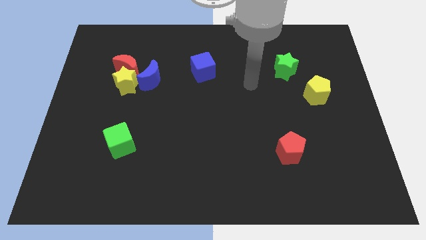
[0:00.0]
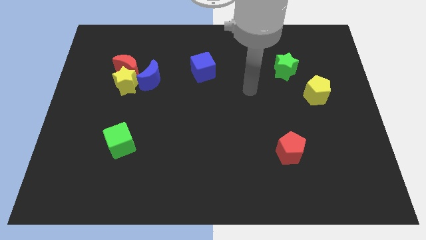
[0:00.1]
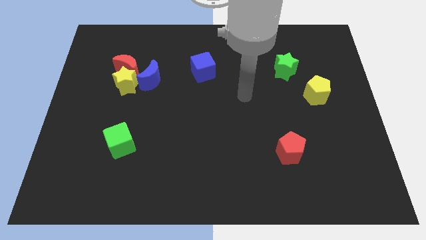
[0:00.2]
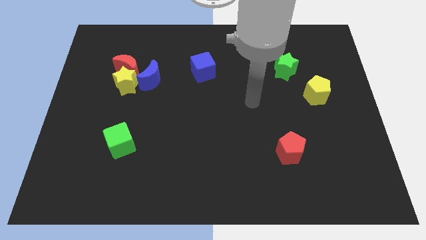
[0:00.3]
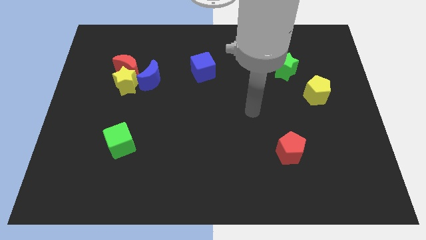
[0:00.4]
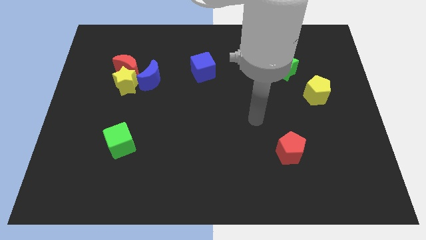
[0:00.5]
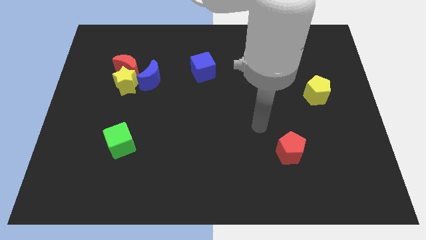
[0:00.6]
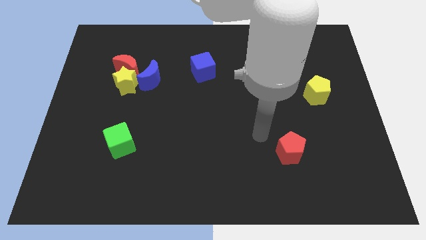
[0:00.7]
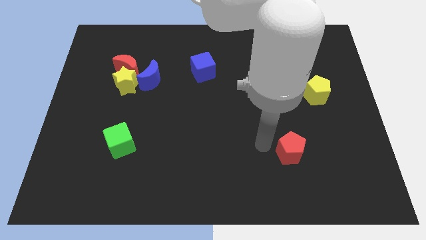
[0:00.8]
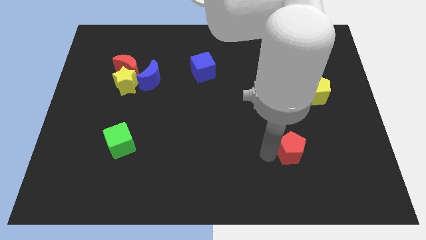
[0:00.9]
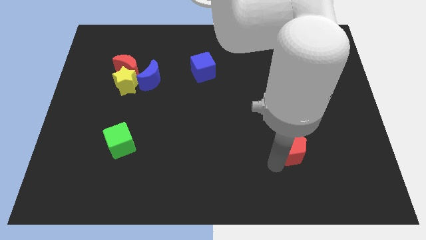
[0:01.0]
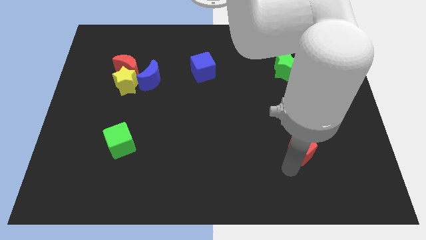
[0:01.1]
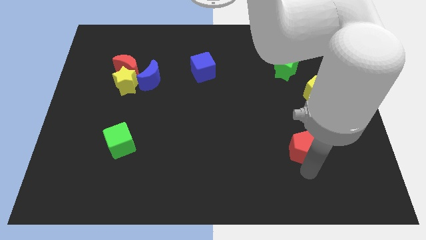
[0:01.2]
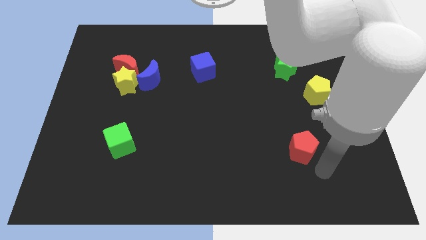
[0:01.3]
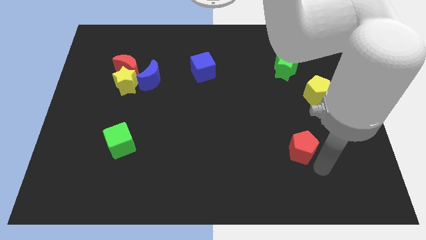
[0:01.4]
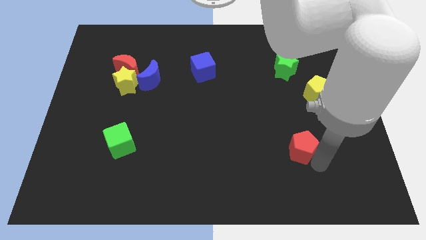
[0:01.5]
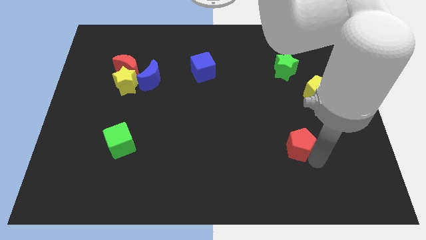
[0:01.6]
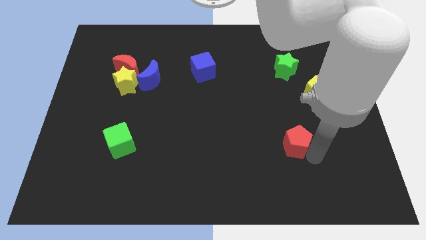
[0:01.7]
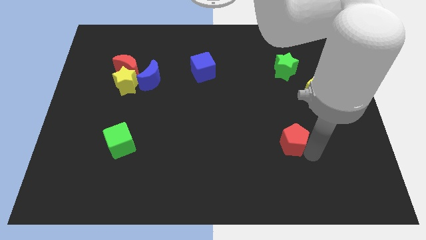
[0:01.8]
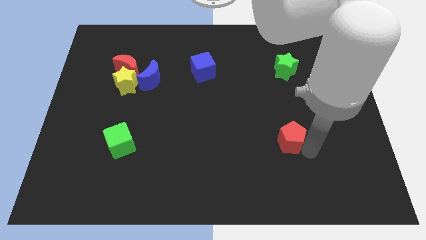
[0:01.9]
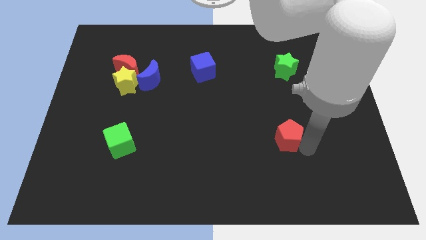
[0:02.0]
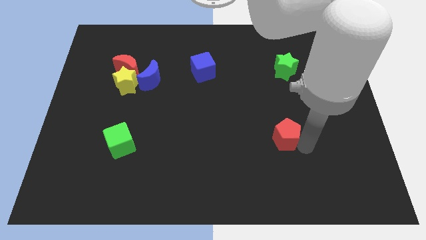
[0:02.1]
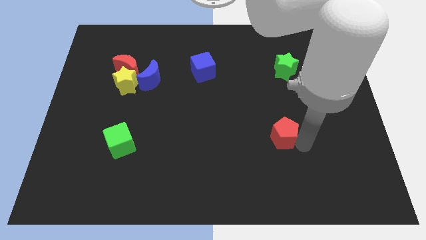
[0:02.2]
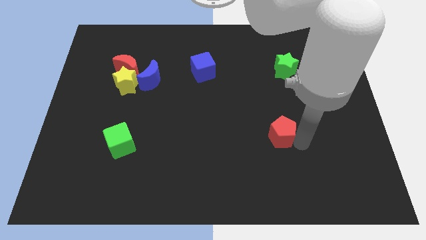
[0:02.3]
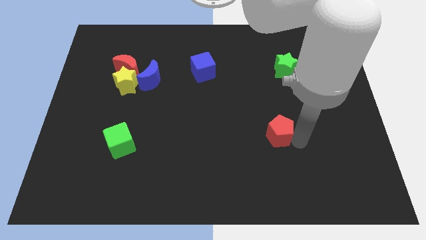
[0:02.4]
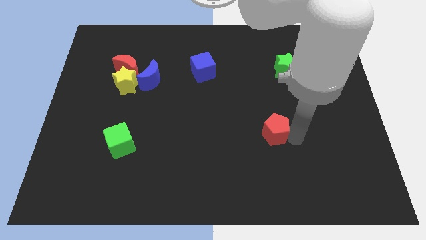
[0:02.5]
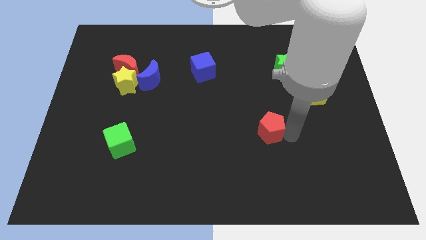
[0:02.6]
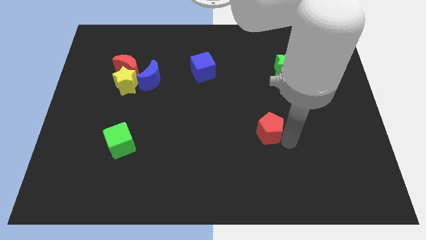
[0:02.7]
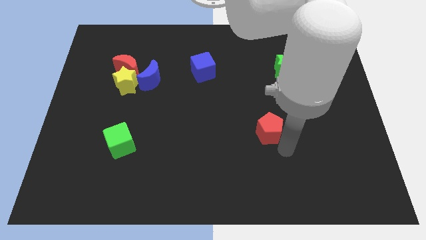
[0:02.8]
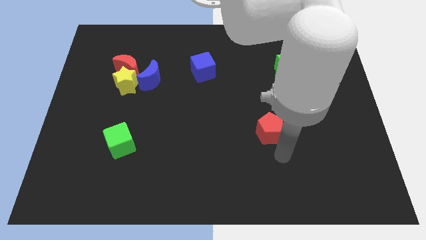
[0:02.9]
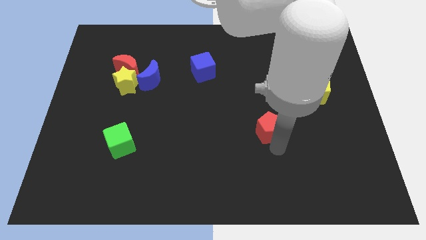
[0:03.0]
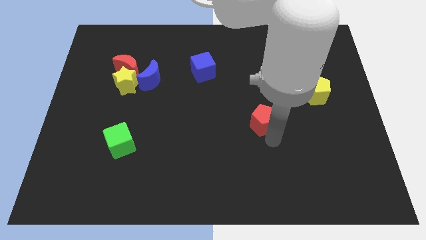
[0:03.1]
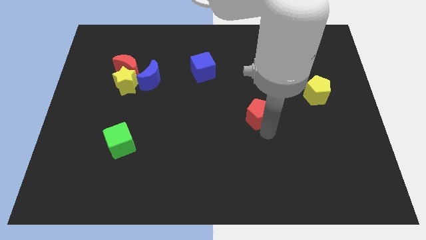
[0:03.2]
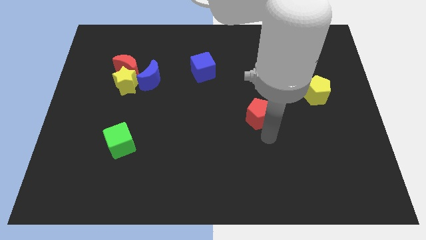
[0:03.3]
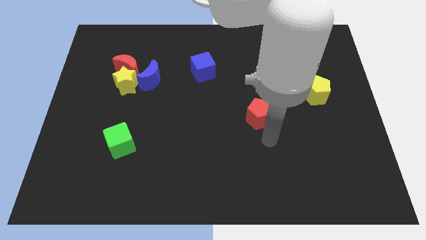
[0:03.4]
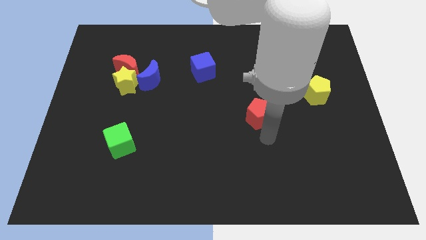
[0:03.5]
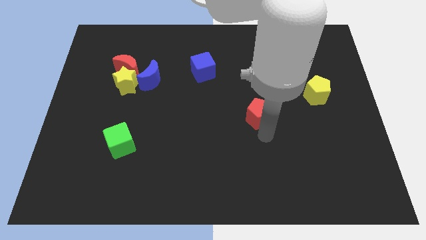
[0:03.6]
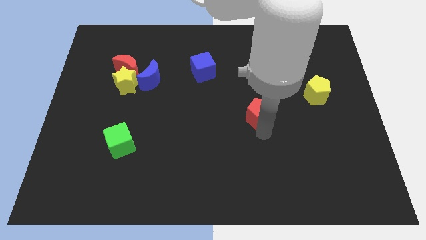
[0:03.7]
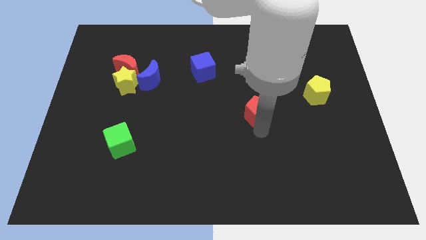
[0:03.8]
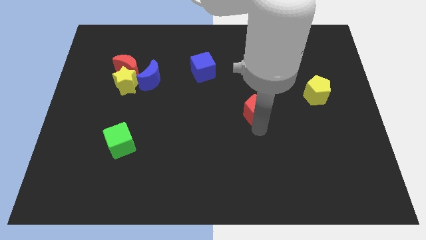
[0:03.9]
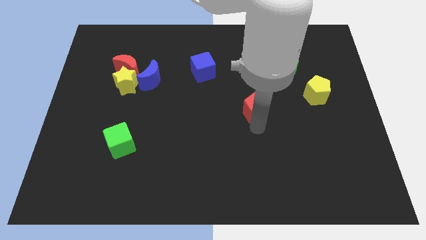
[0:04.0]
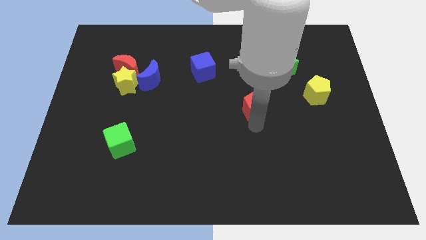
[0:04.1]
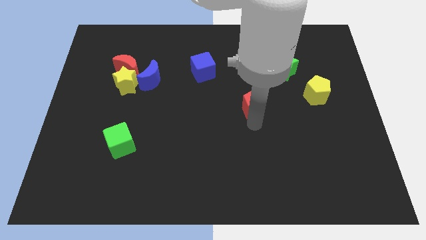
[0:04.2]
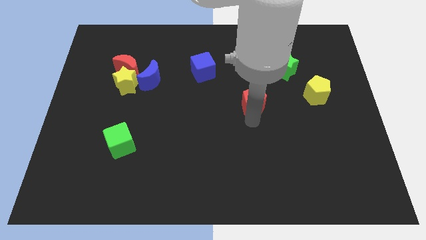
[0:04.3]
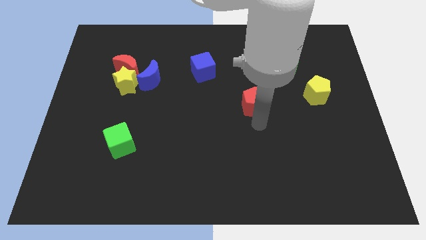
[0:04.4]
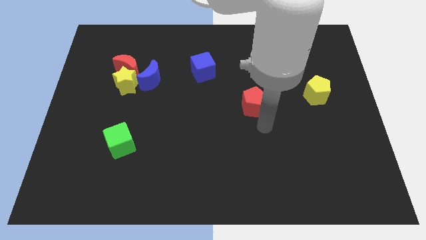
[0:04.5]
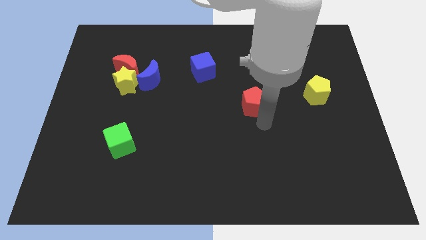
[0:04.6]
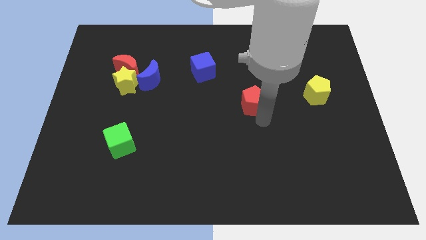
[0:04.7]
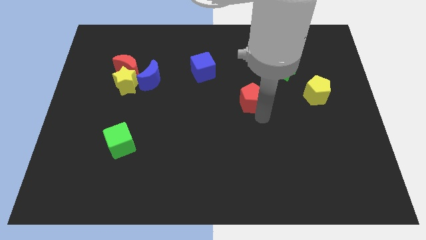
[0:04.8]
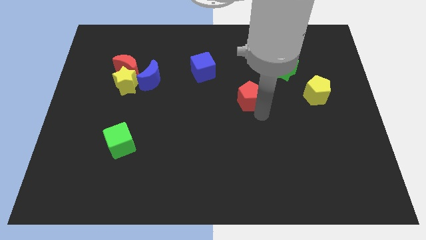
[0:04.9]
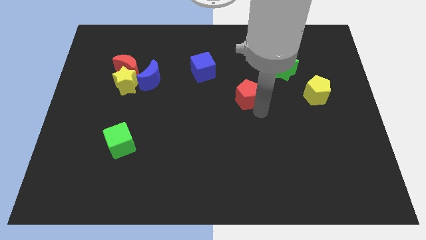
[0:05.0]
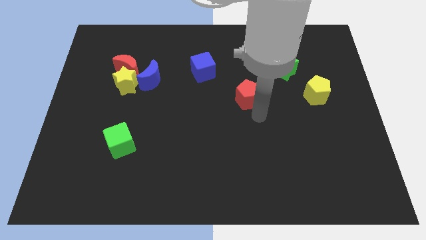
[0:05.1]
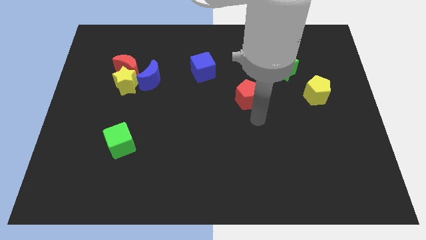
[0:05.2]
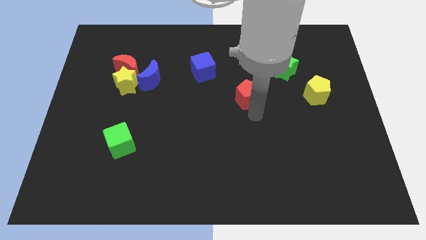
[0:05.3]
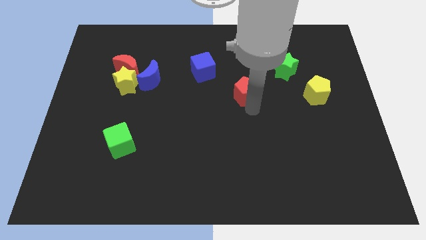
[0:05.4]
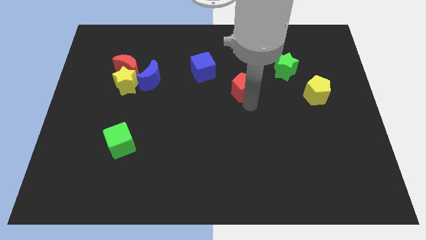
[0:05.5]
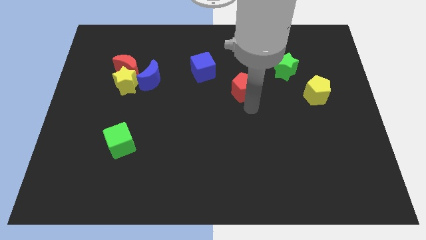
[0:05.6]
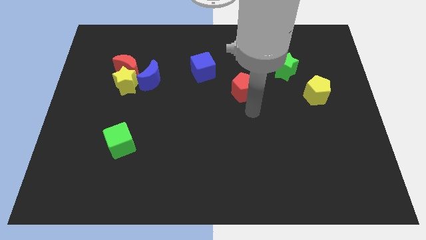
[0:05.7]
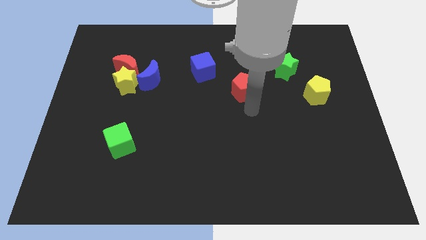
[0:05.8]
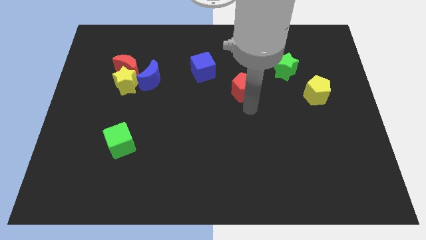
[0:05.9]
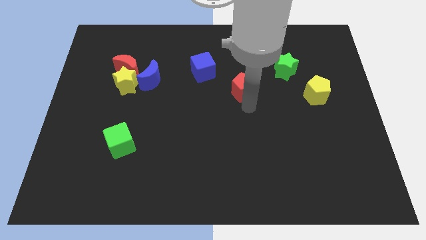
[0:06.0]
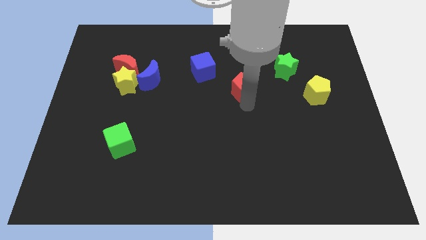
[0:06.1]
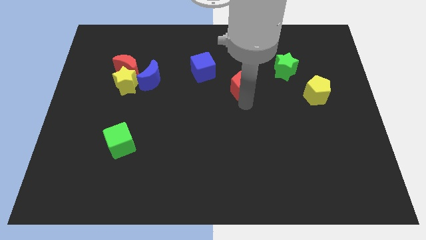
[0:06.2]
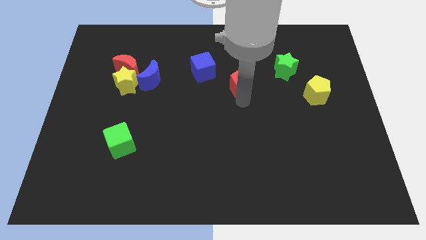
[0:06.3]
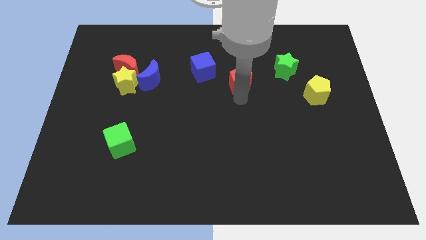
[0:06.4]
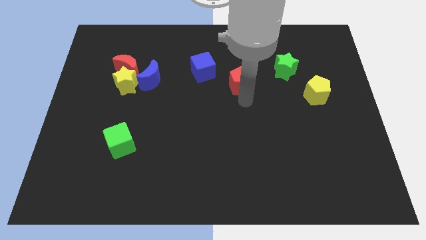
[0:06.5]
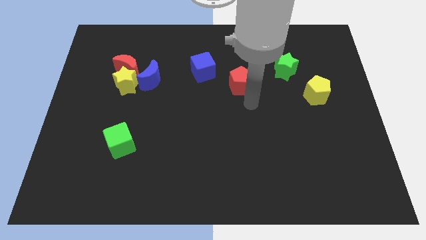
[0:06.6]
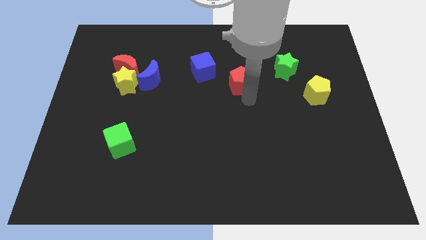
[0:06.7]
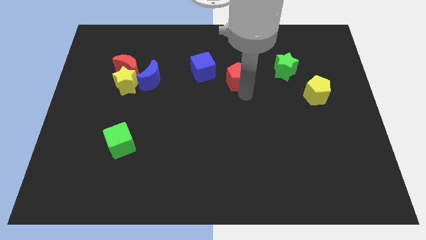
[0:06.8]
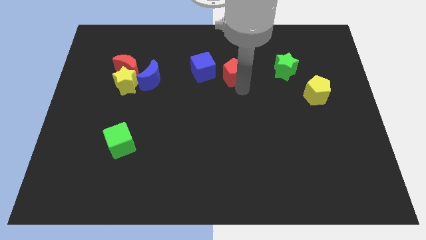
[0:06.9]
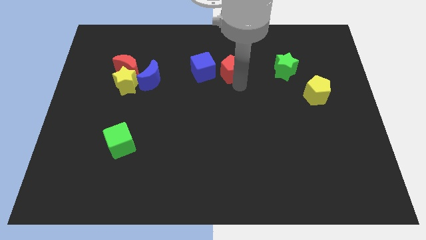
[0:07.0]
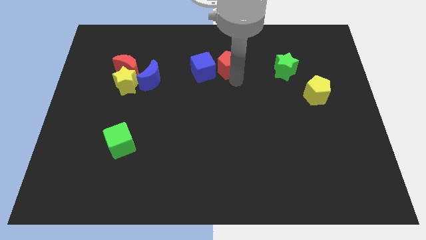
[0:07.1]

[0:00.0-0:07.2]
slide the red pentagon diagonally up and to the right of the blue cube

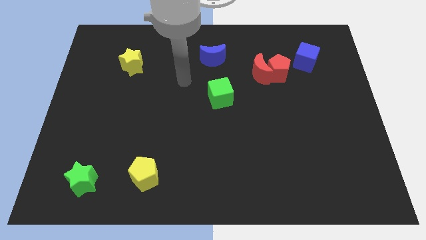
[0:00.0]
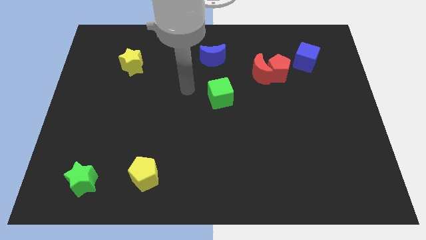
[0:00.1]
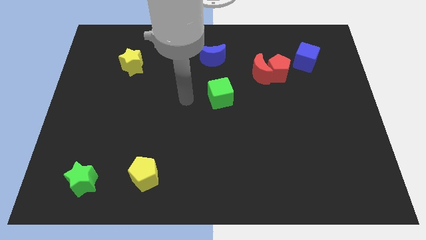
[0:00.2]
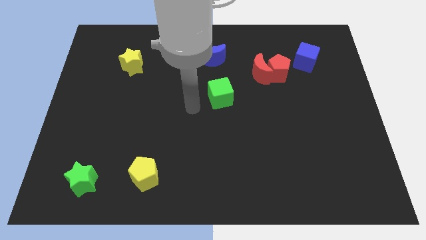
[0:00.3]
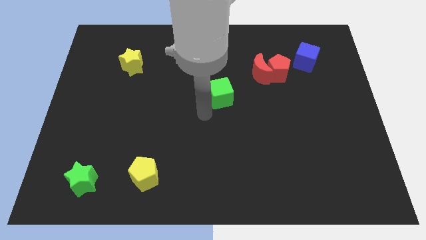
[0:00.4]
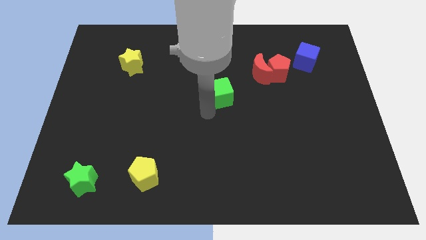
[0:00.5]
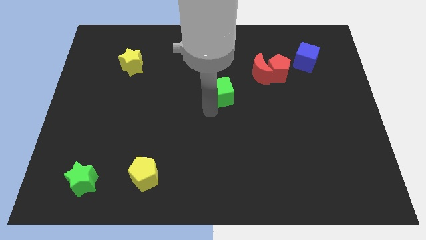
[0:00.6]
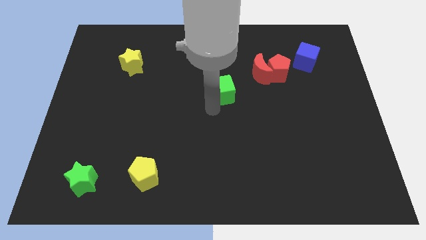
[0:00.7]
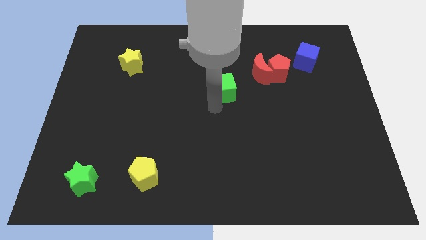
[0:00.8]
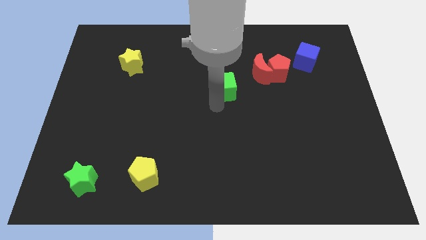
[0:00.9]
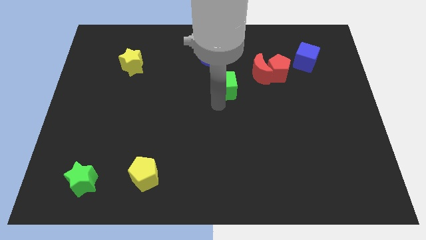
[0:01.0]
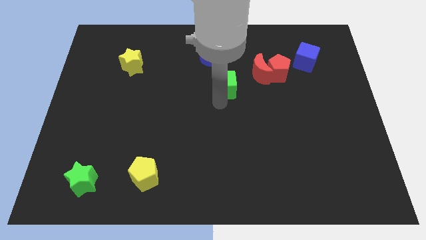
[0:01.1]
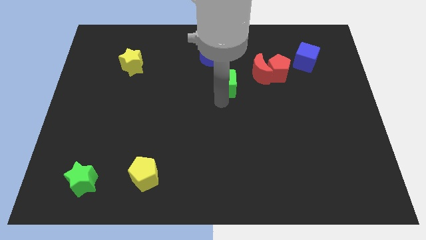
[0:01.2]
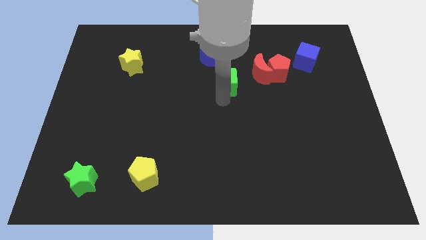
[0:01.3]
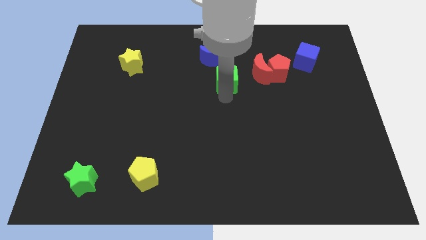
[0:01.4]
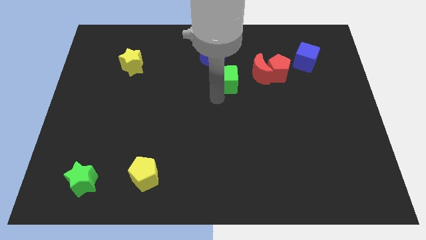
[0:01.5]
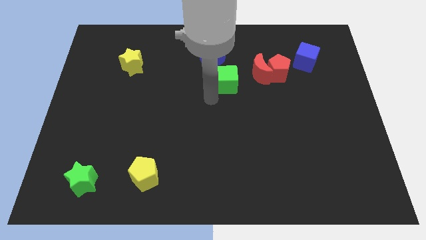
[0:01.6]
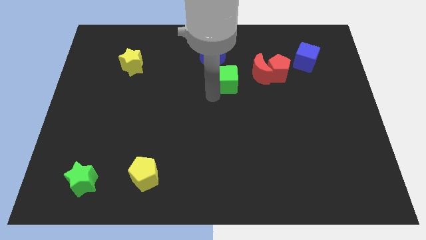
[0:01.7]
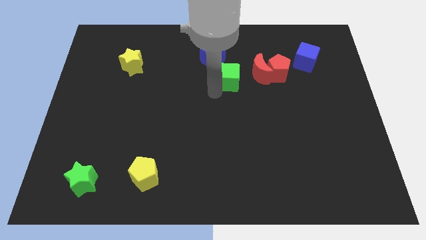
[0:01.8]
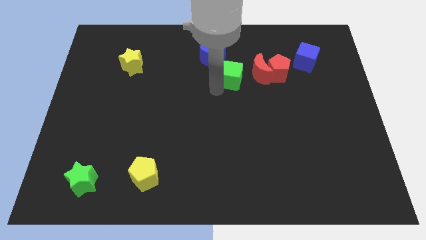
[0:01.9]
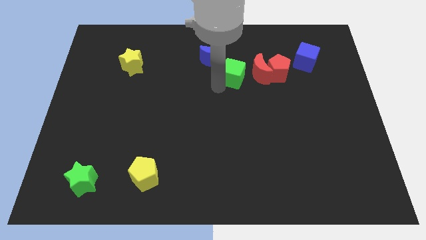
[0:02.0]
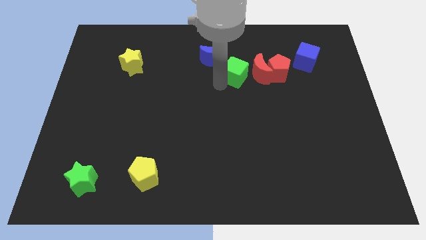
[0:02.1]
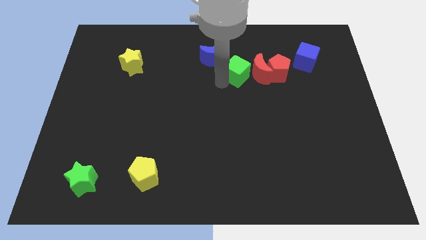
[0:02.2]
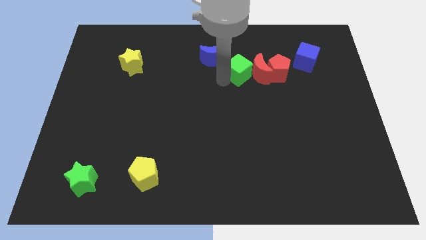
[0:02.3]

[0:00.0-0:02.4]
slide the green cube just right of the blue moon
